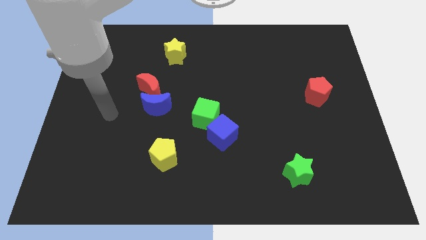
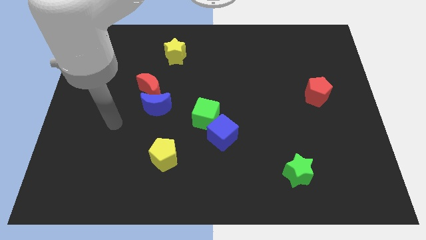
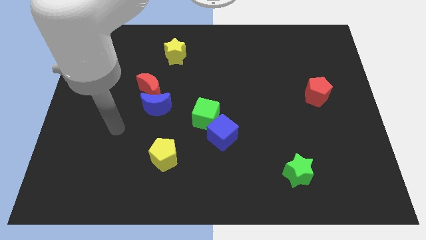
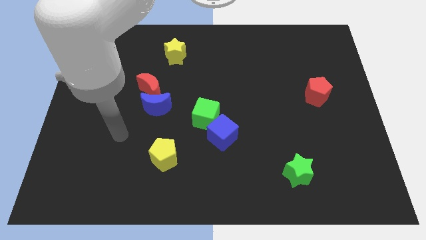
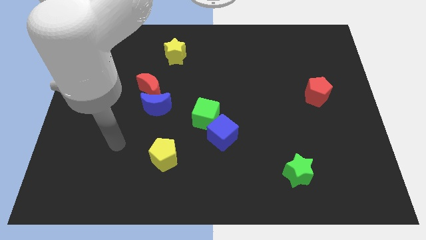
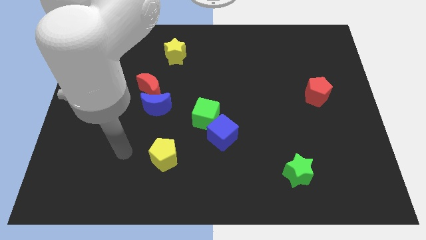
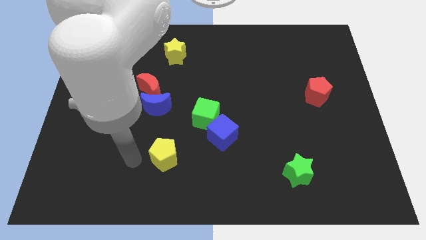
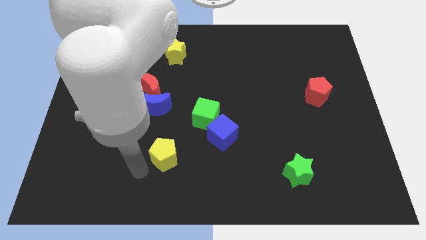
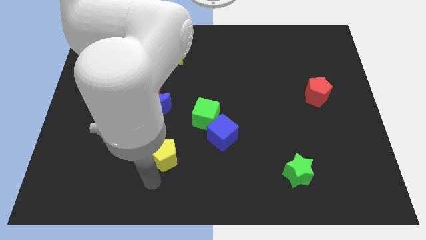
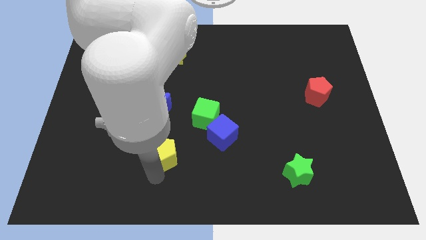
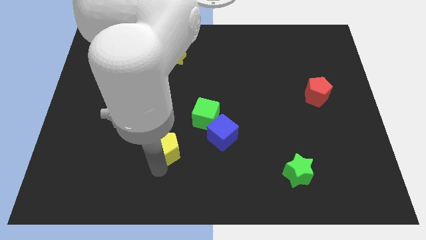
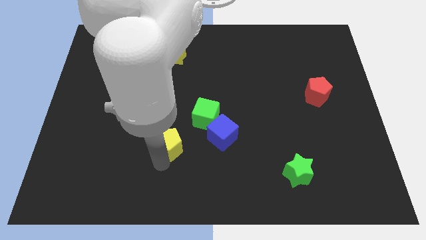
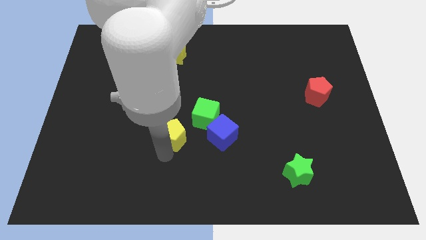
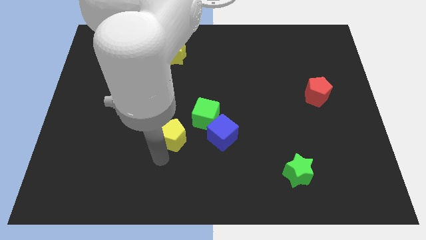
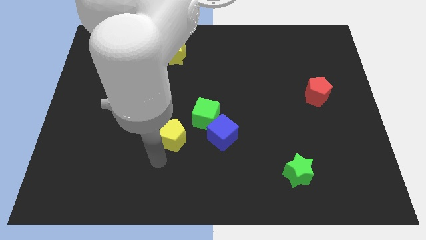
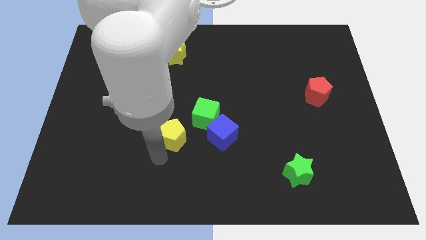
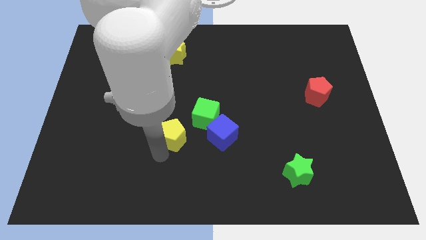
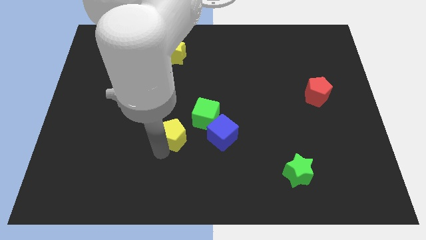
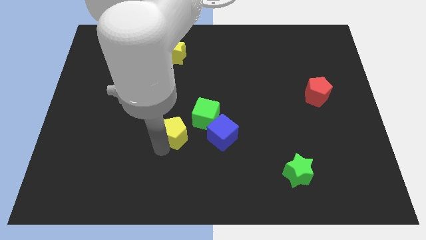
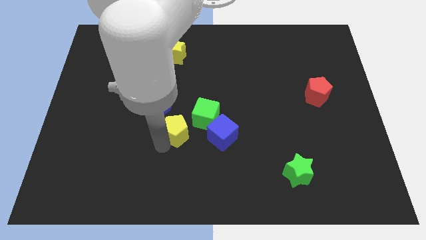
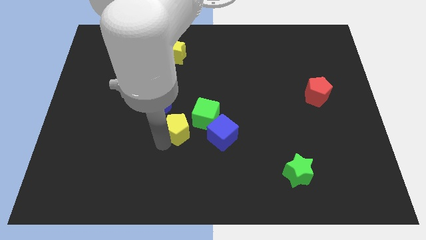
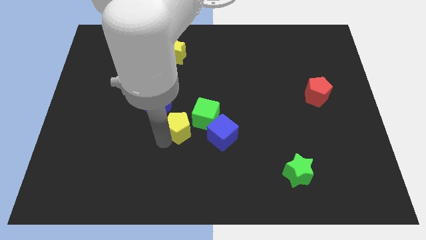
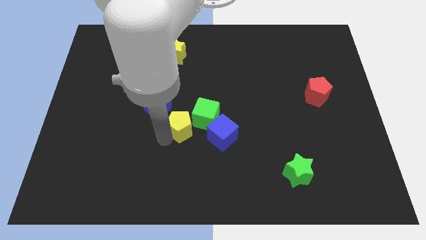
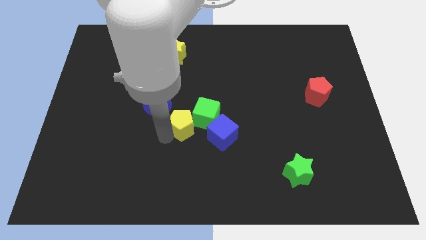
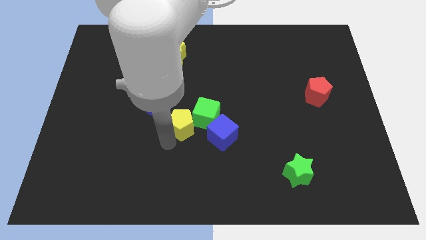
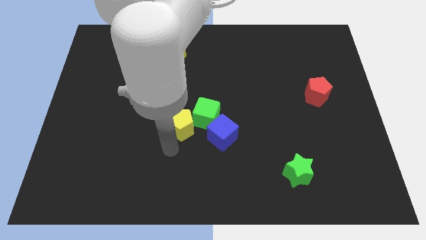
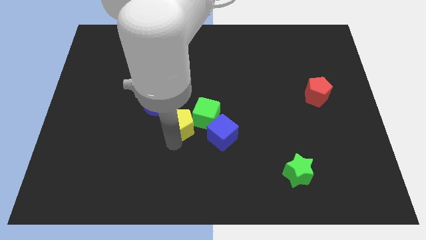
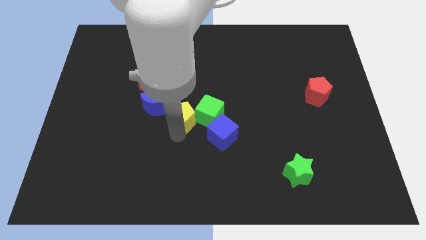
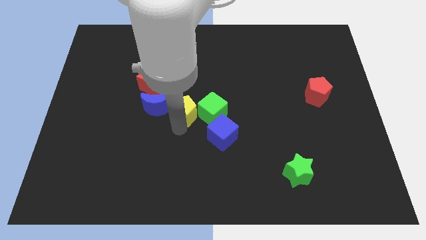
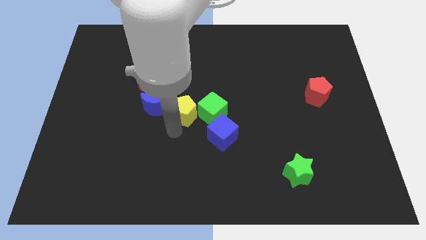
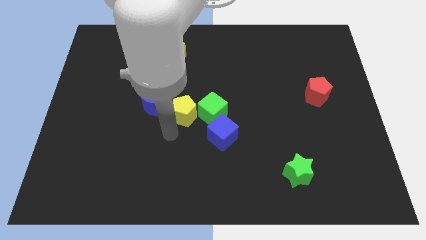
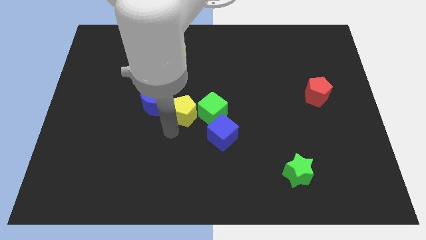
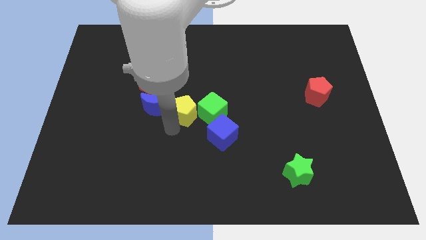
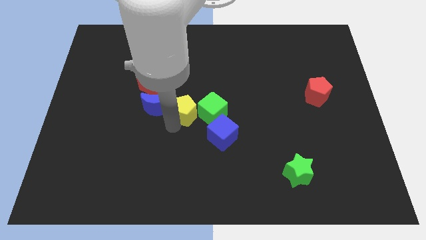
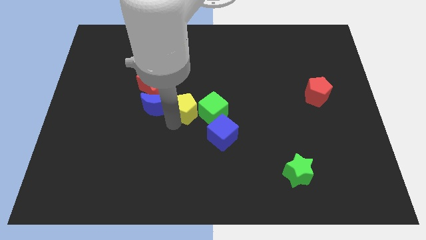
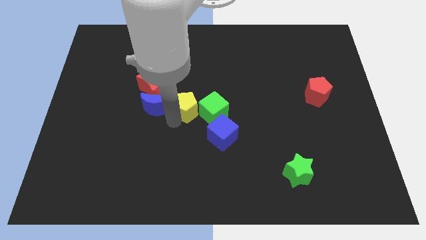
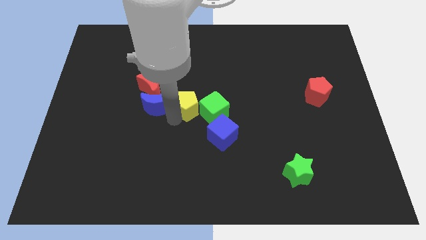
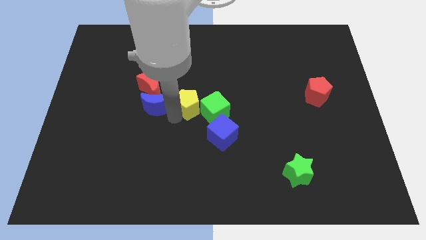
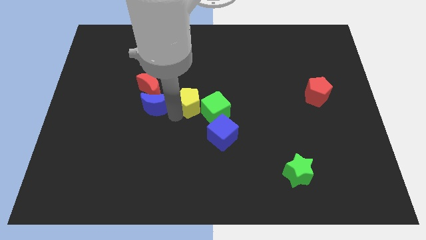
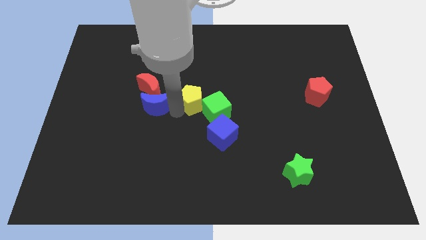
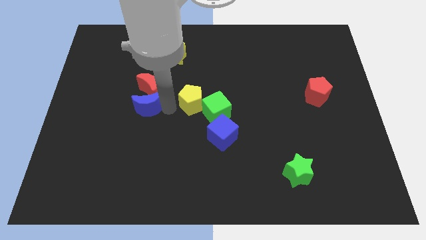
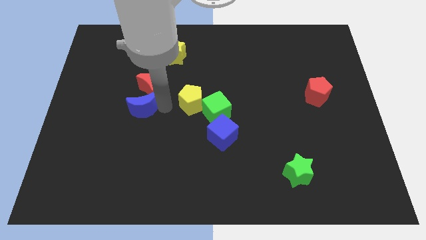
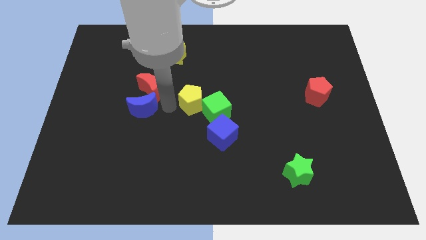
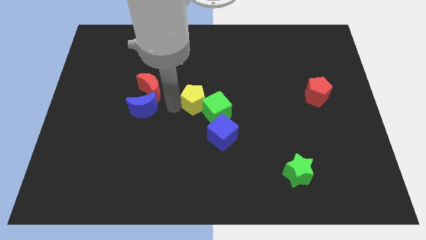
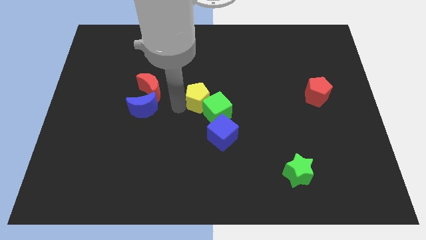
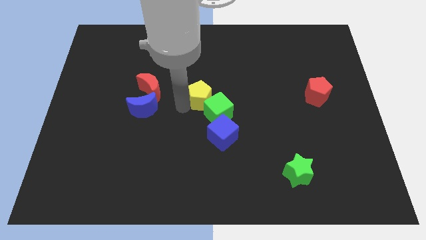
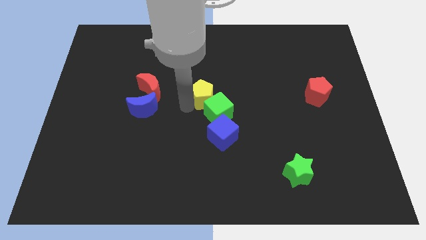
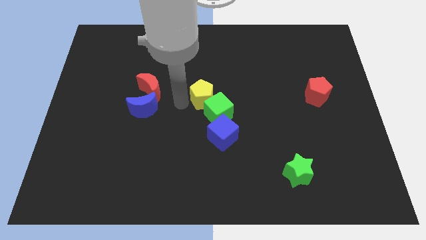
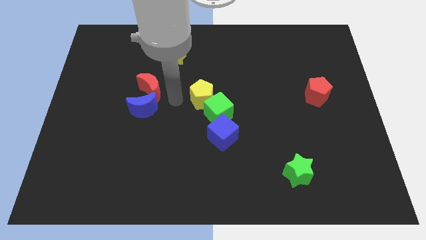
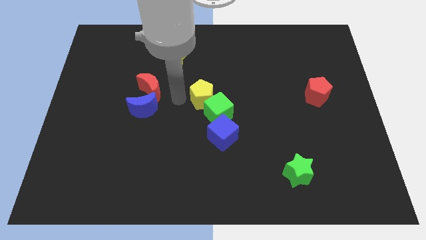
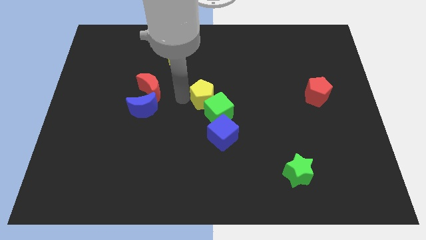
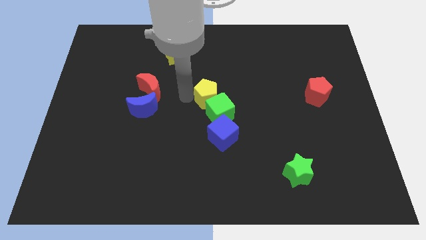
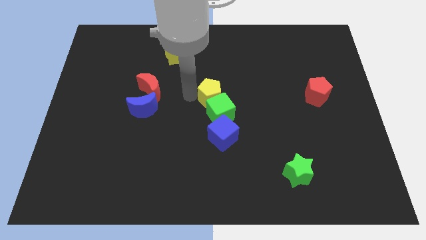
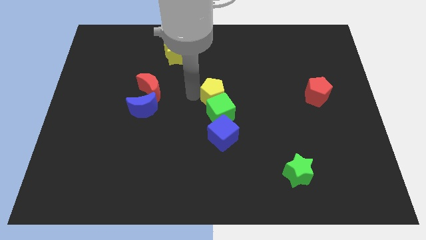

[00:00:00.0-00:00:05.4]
push the yellow pentagon to the top right of the green cube
